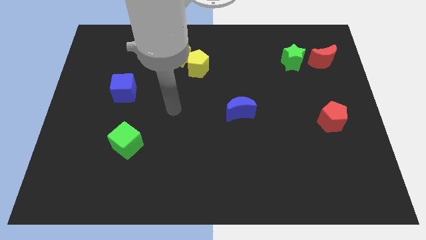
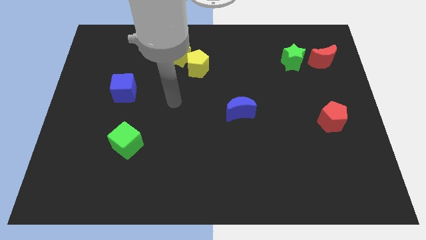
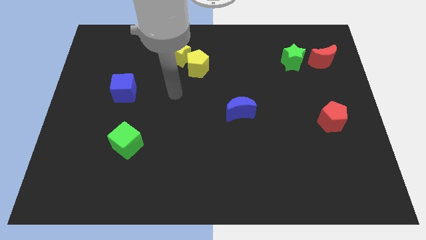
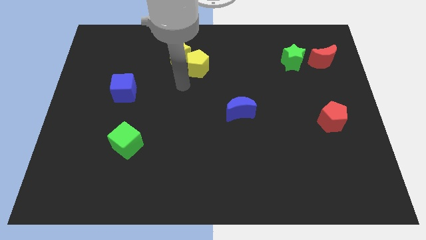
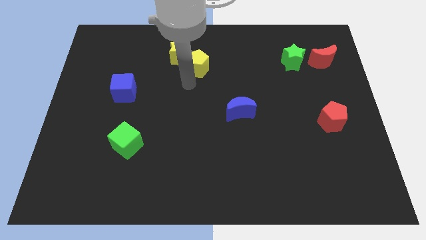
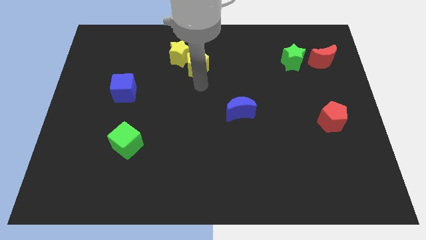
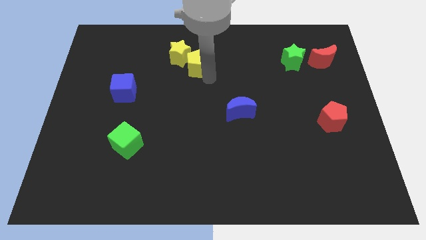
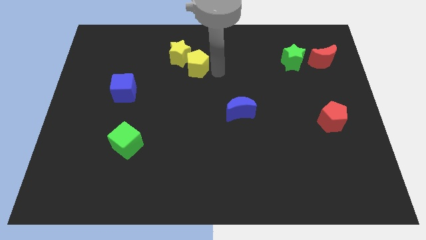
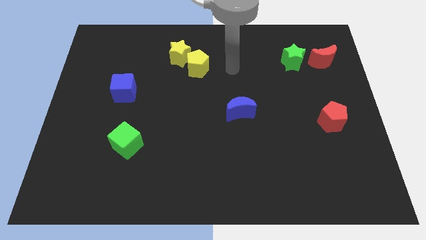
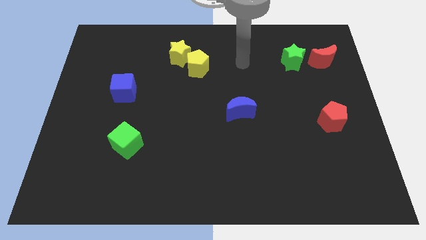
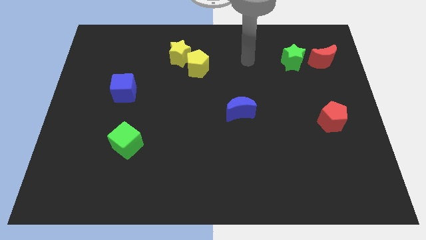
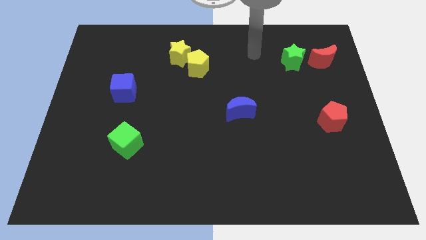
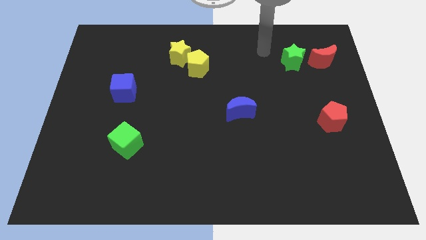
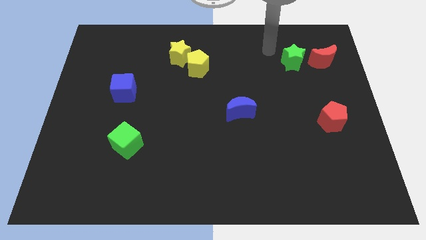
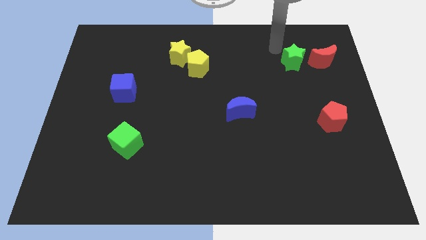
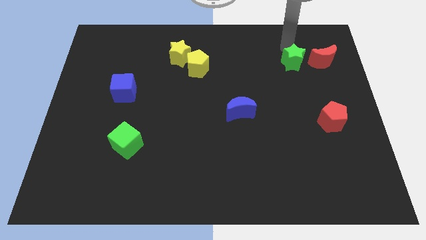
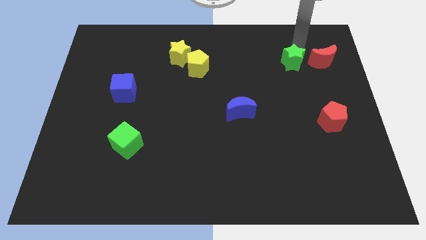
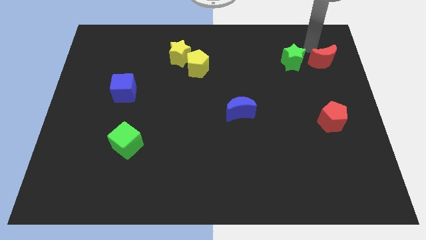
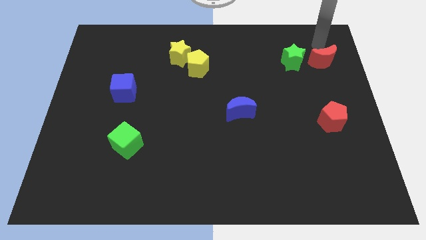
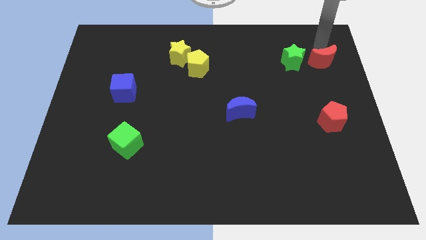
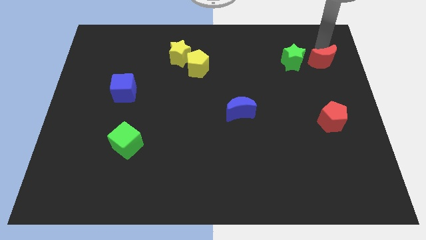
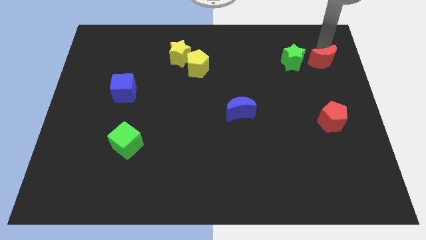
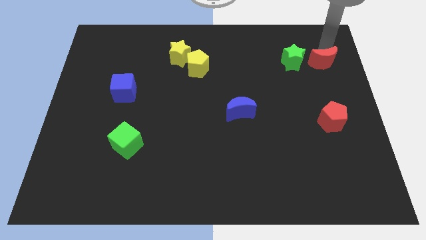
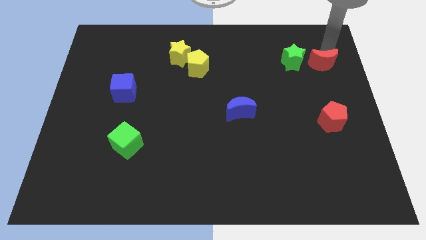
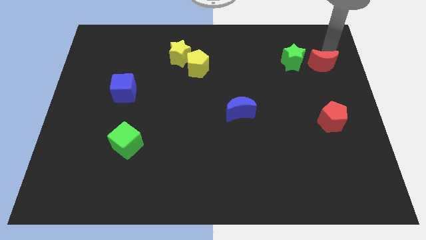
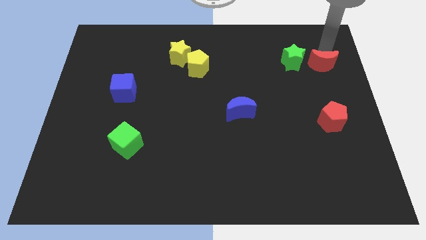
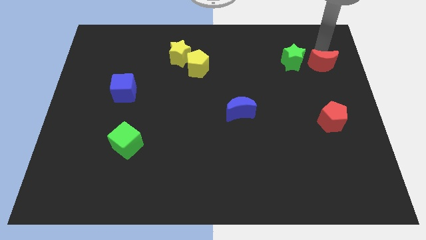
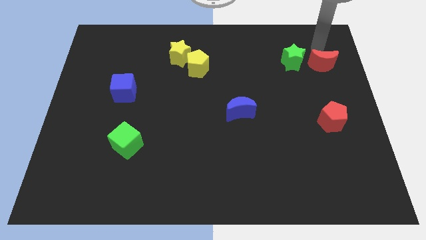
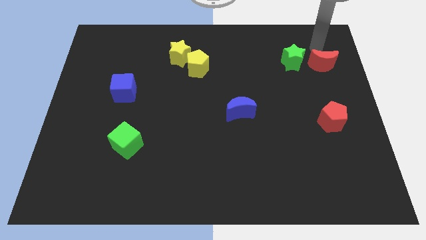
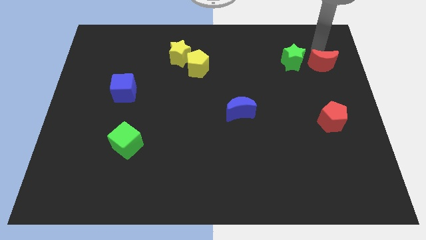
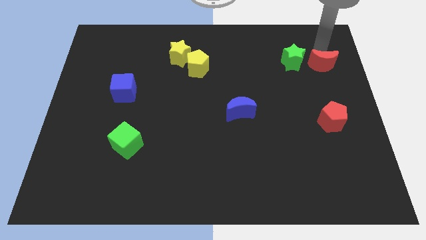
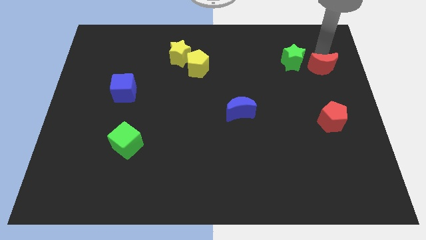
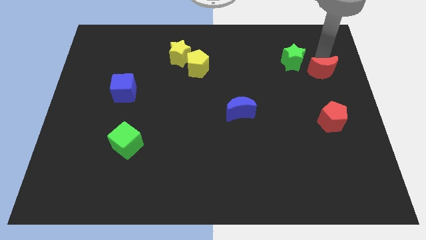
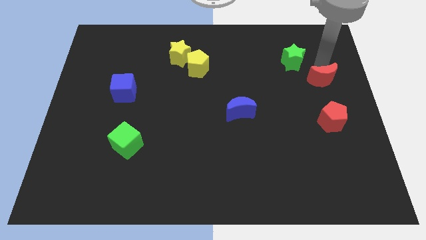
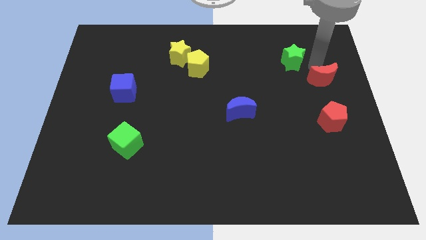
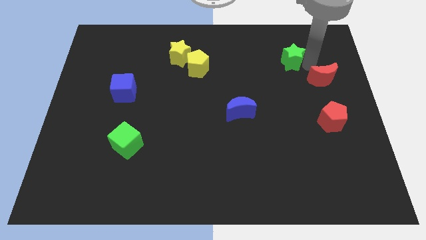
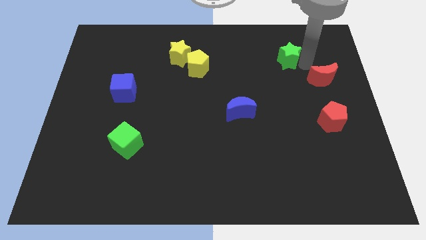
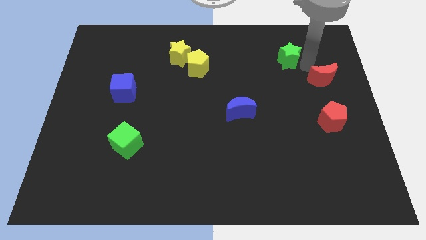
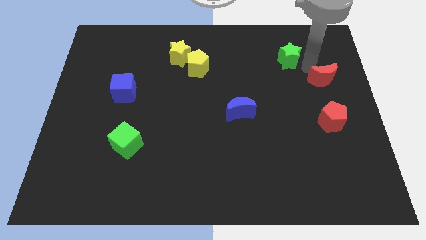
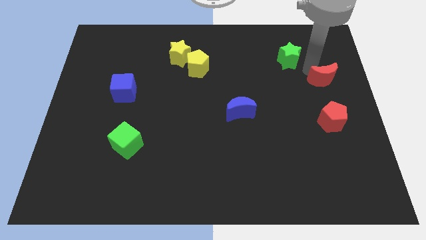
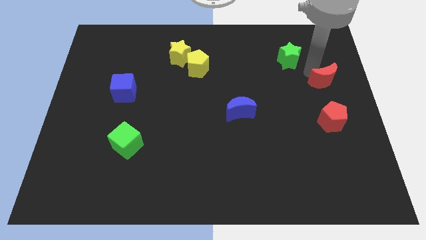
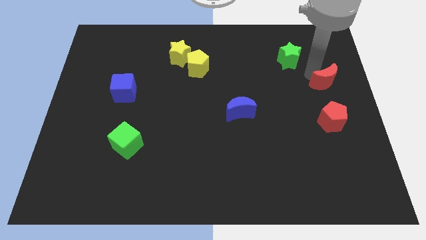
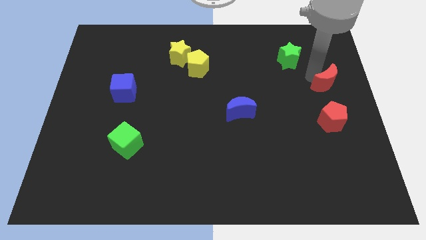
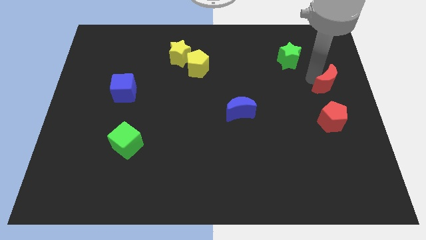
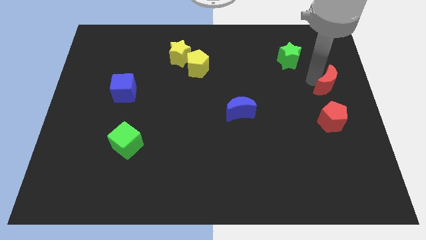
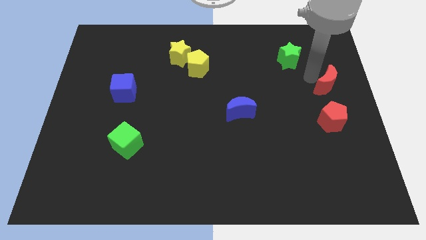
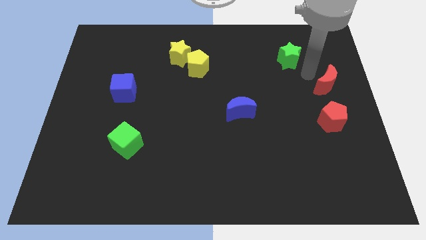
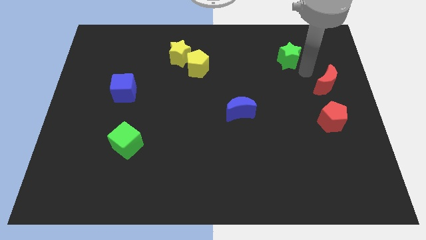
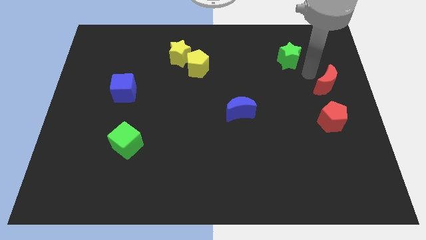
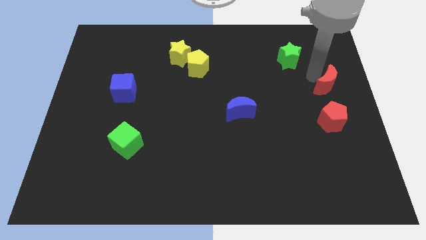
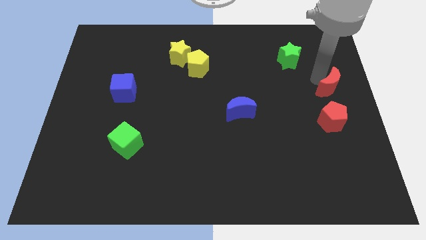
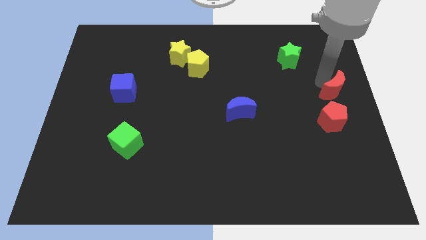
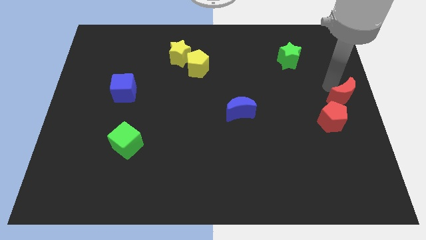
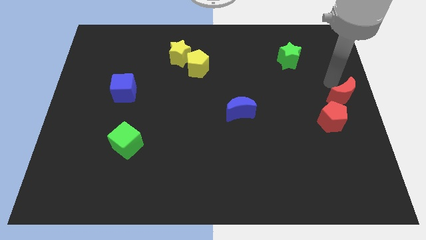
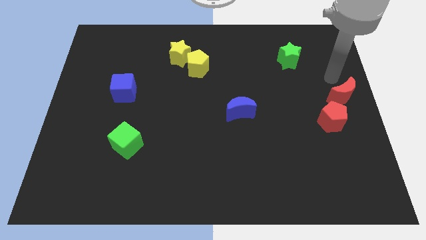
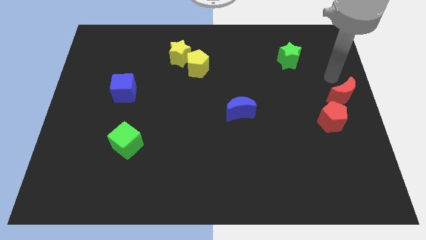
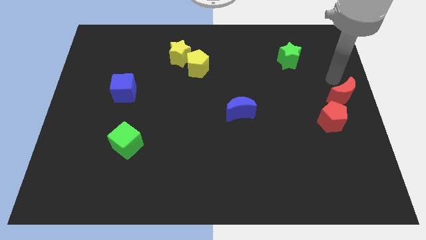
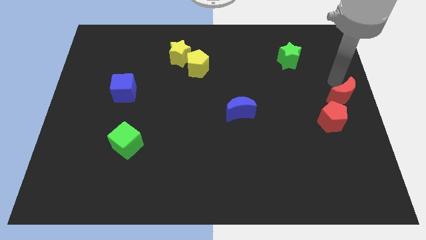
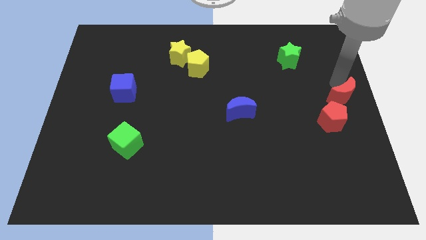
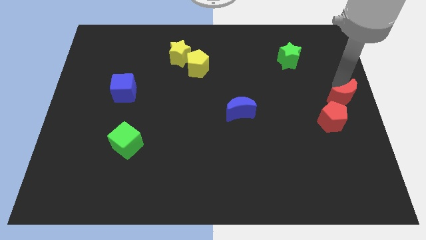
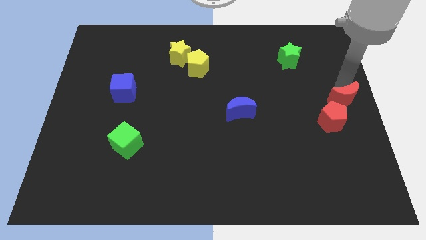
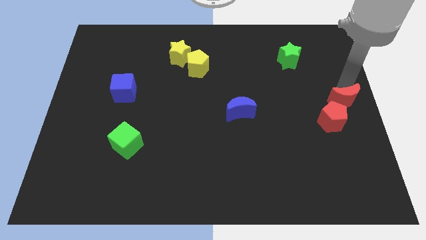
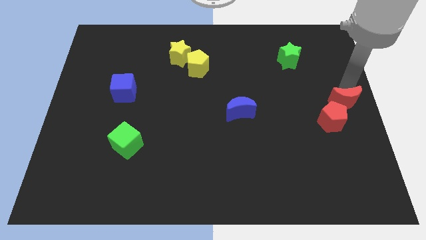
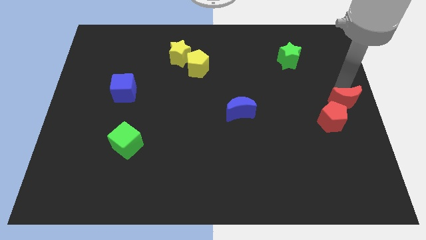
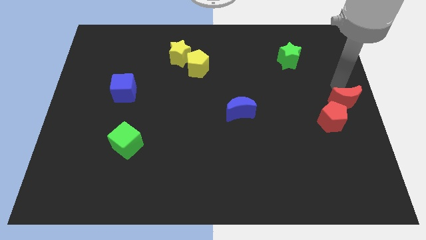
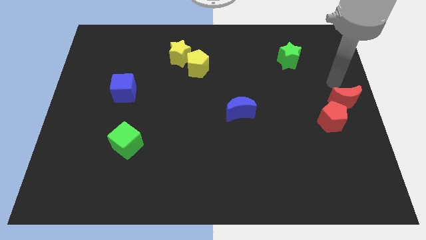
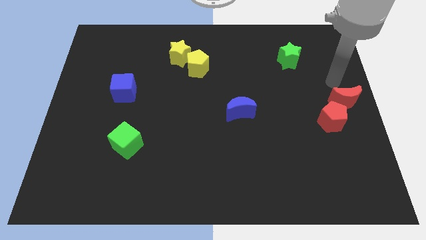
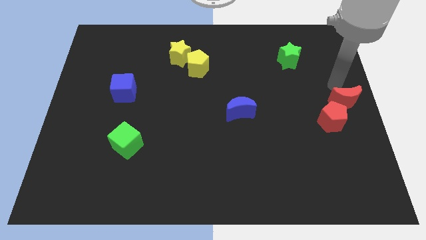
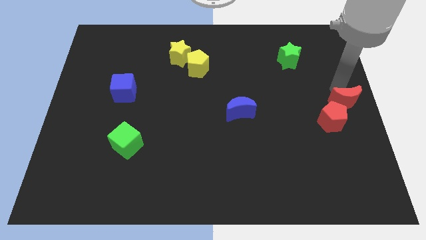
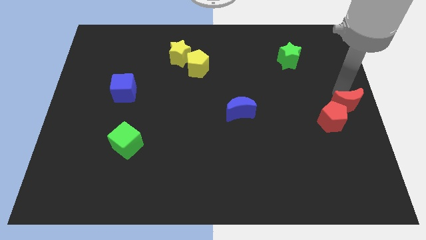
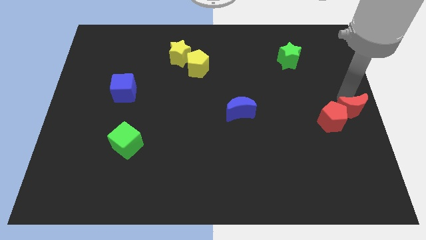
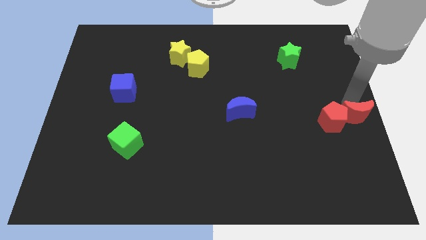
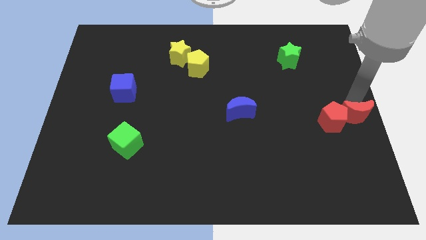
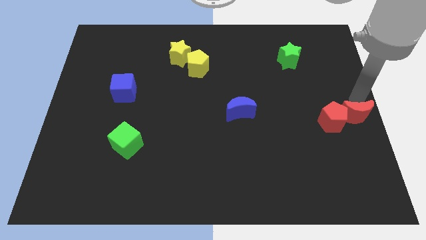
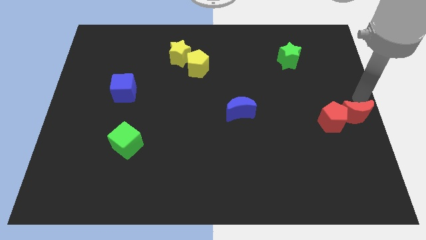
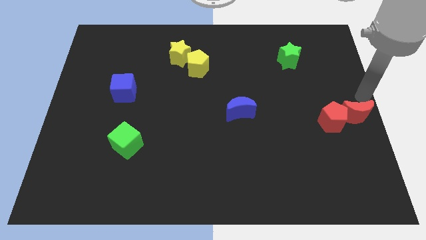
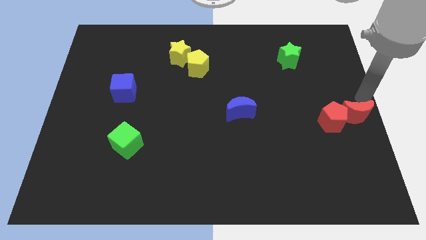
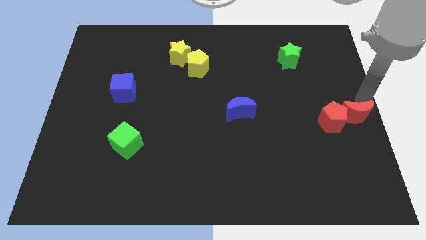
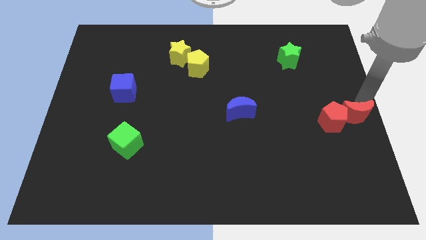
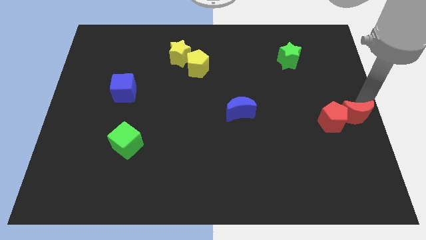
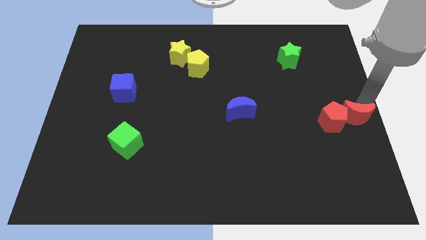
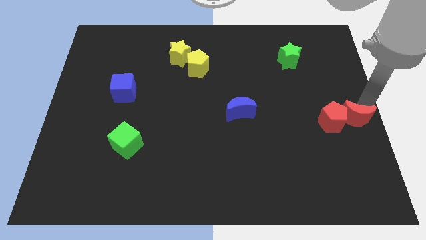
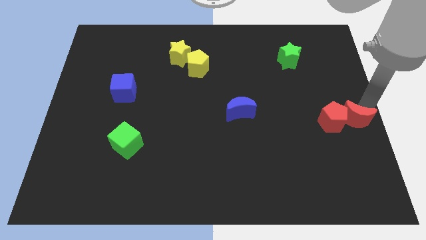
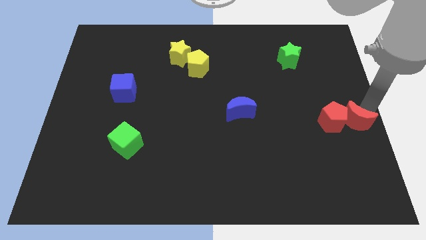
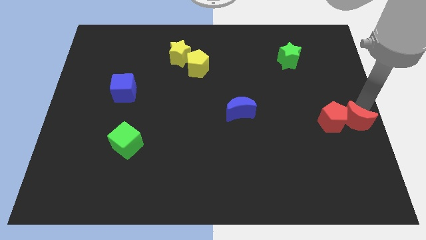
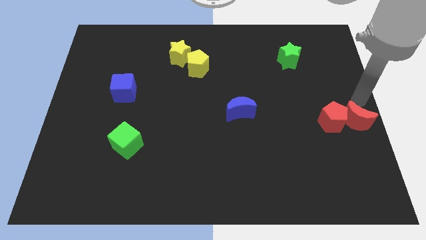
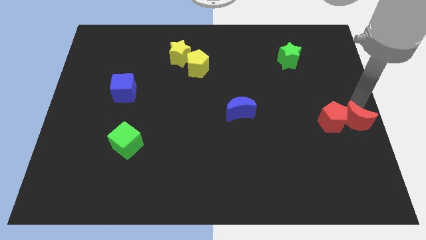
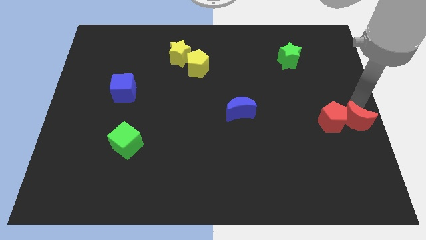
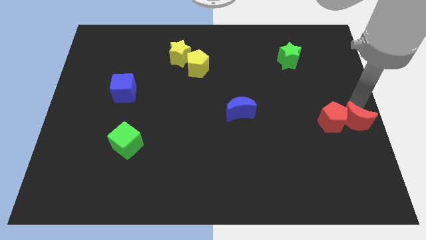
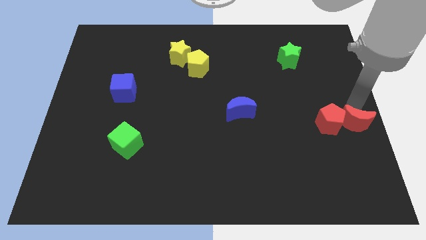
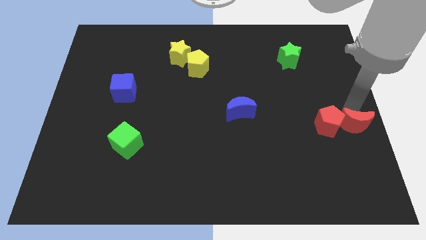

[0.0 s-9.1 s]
slide the red moon downwards
